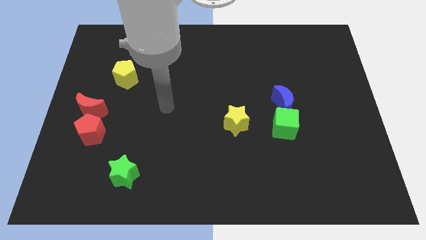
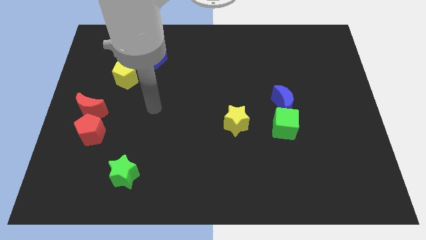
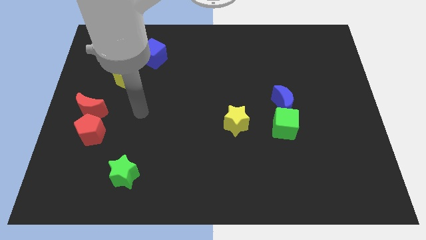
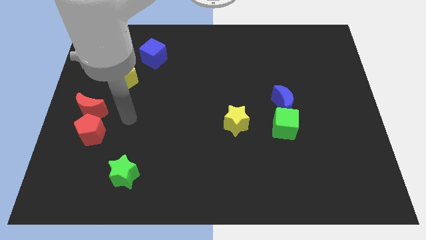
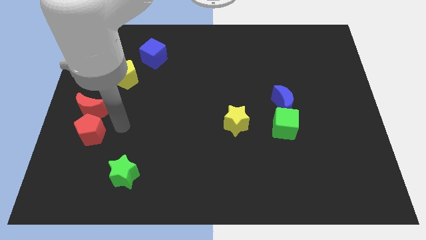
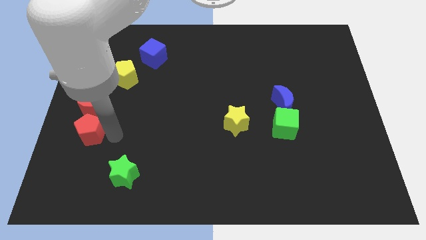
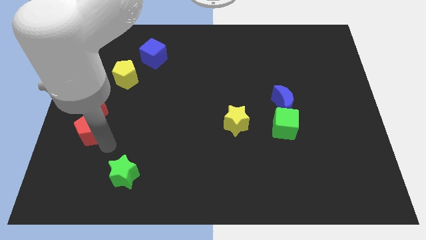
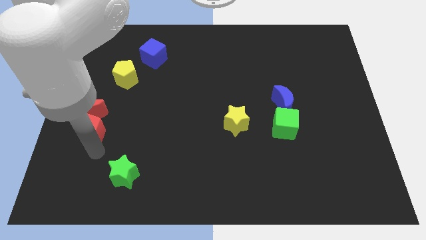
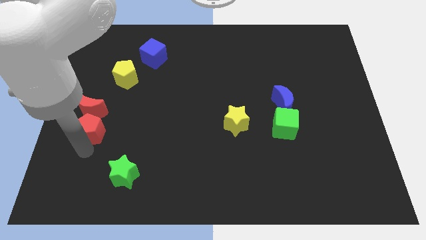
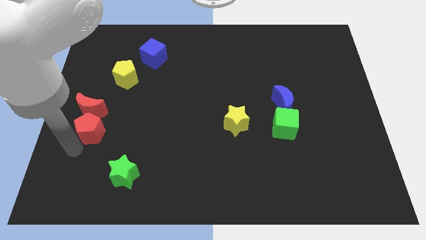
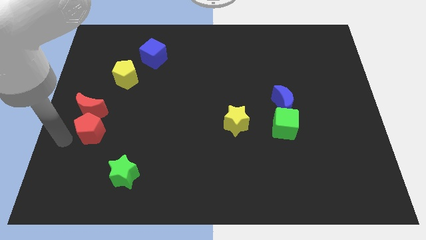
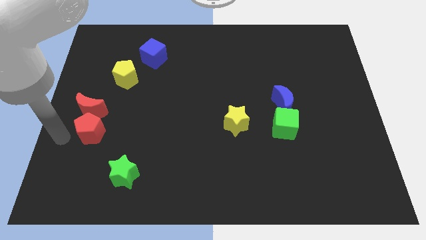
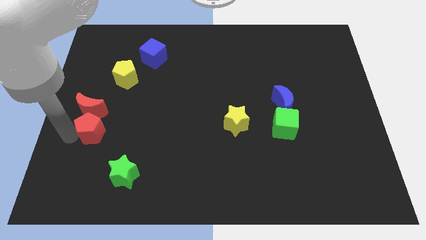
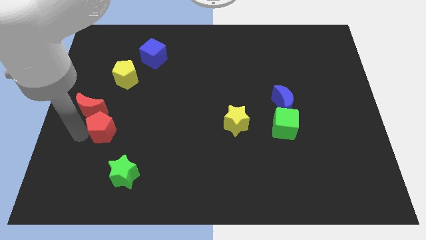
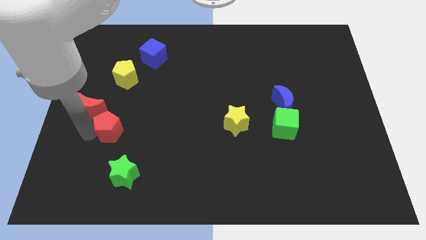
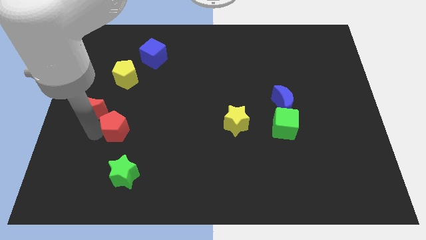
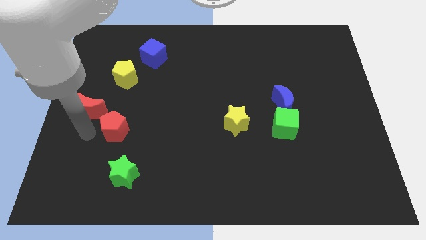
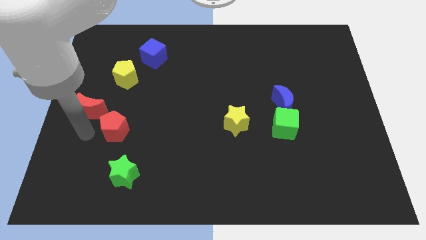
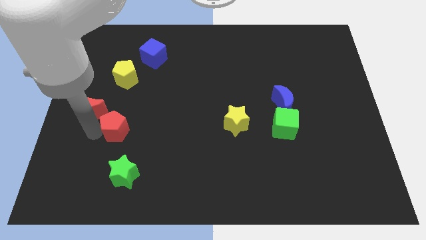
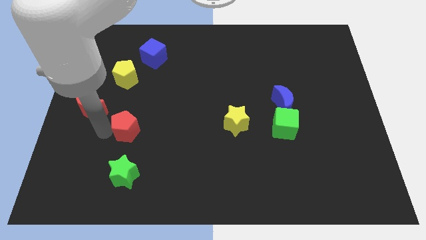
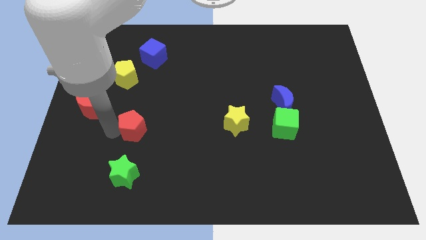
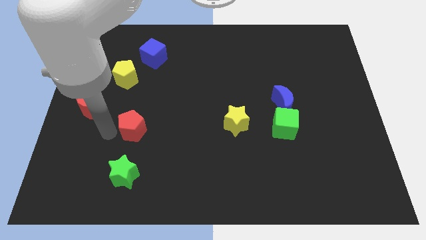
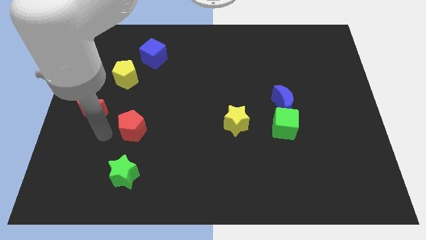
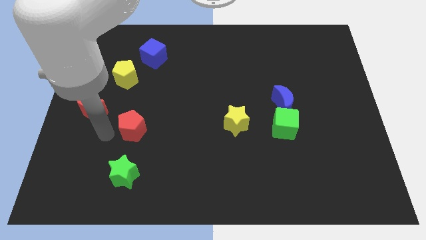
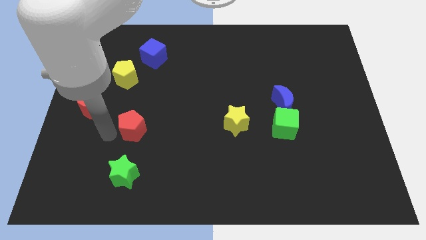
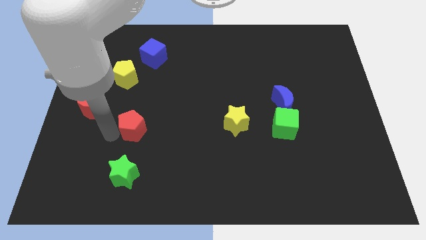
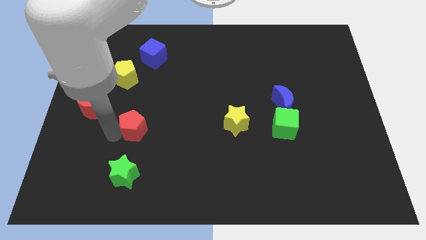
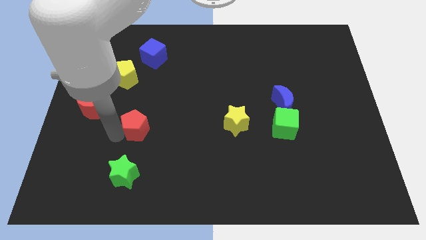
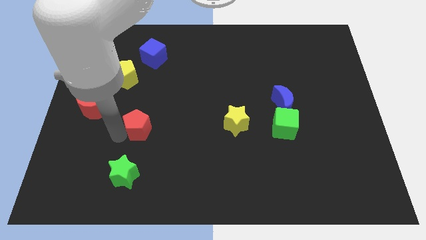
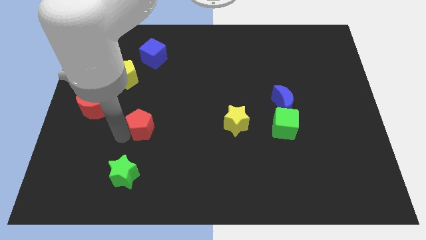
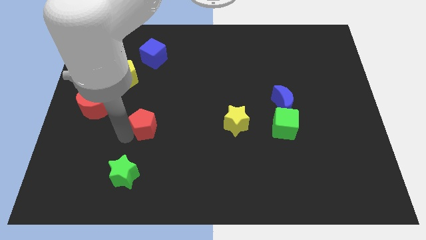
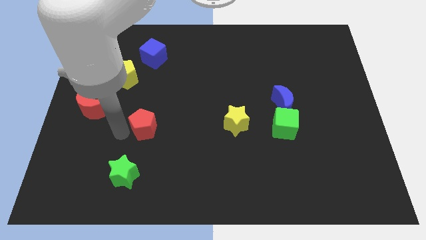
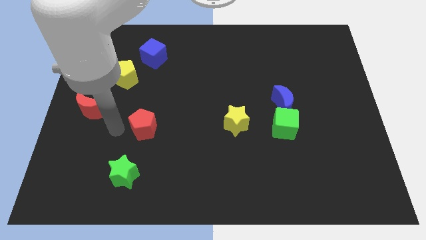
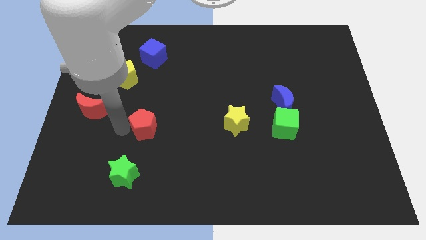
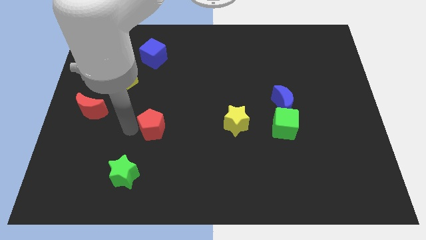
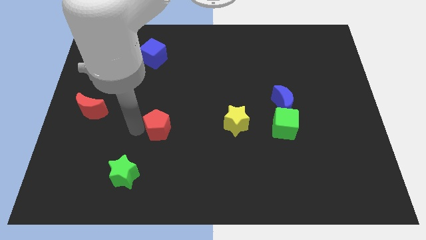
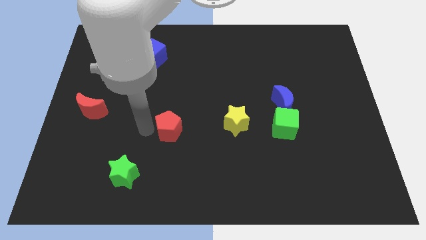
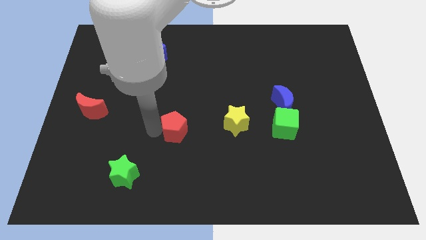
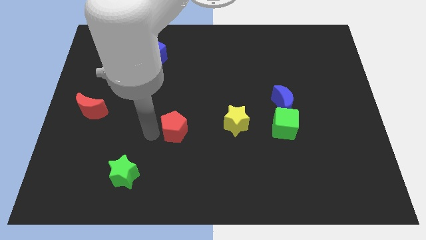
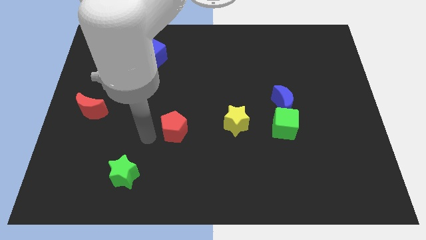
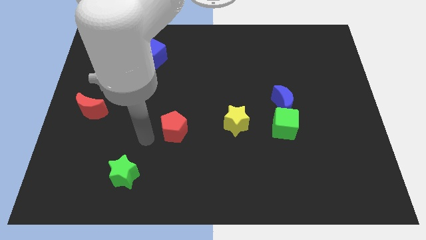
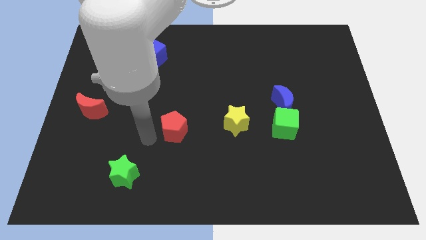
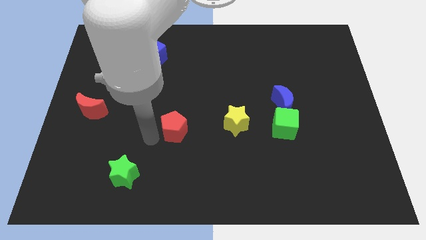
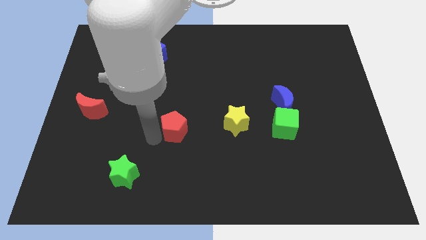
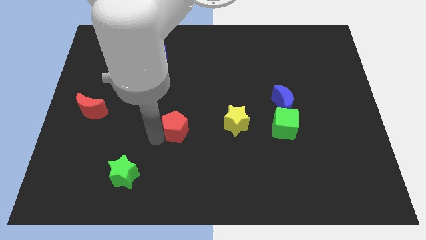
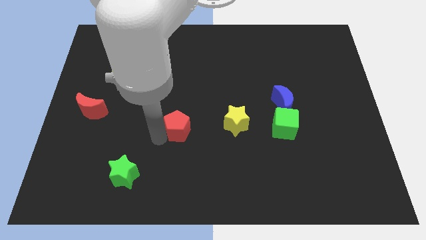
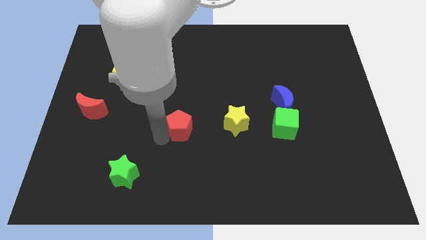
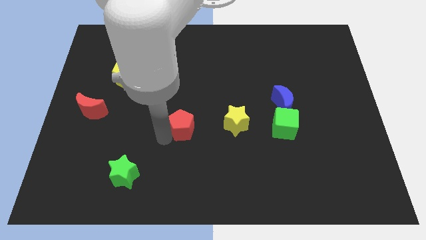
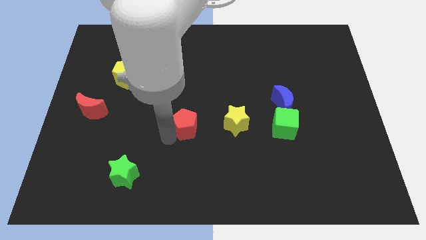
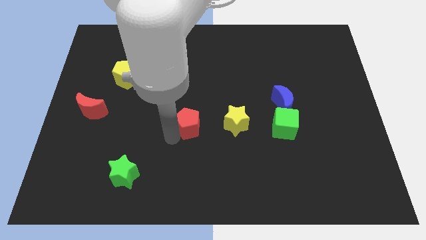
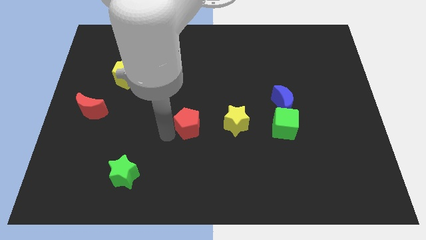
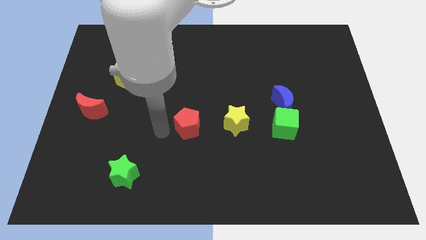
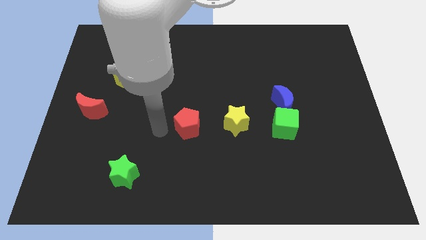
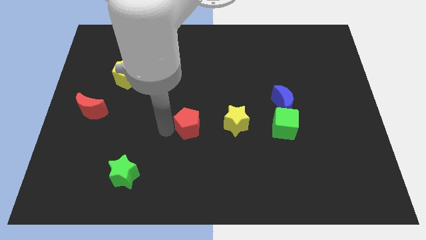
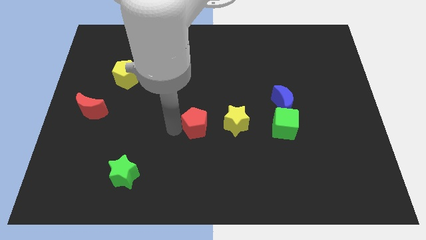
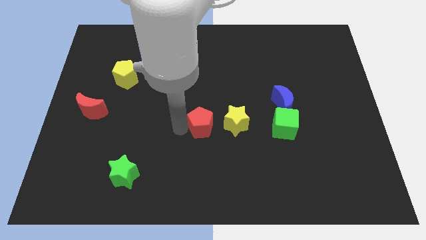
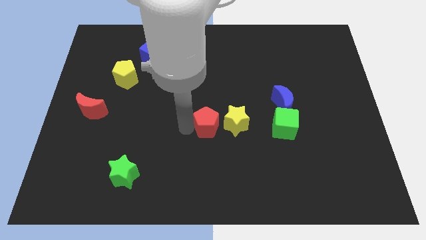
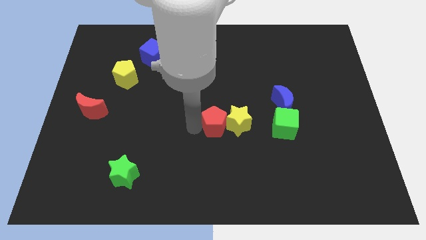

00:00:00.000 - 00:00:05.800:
push the red pentagon next to the yellow star
